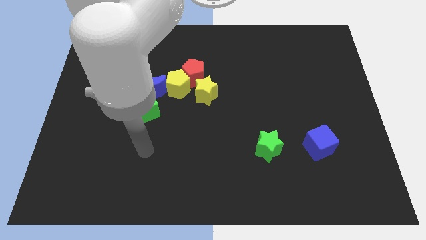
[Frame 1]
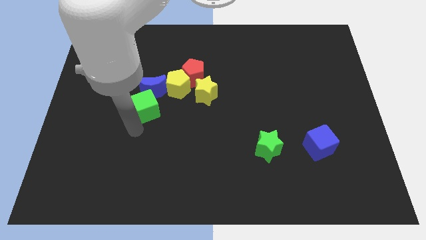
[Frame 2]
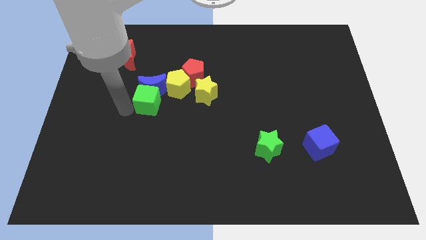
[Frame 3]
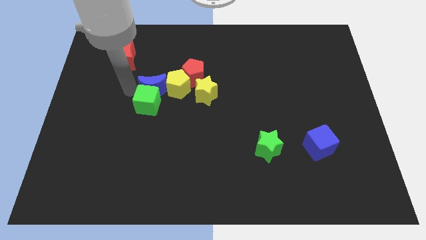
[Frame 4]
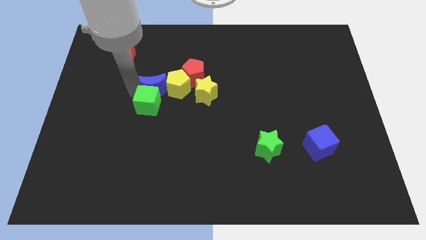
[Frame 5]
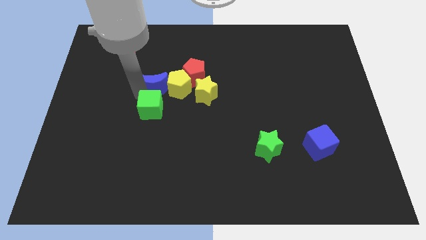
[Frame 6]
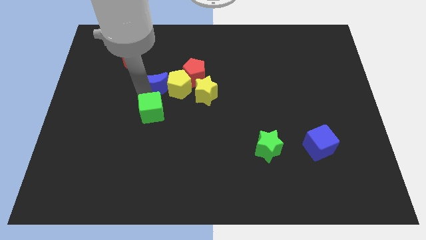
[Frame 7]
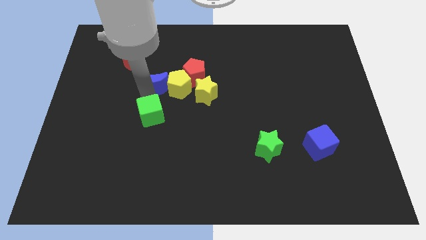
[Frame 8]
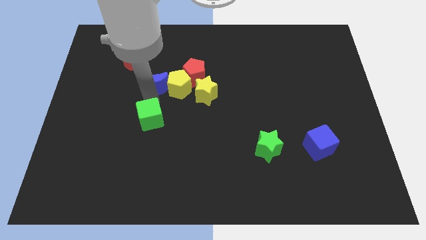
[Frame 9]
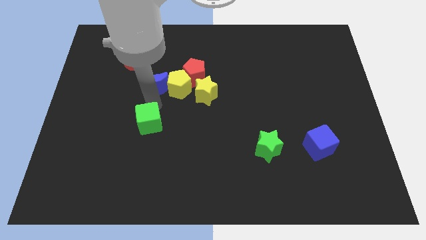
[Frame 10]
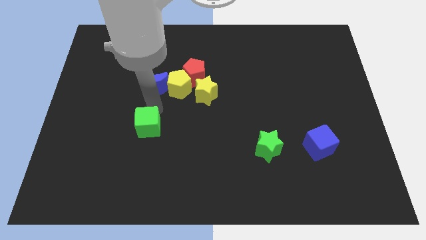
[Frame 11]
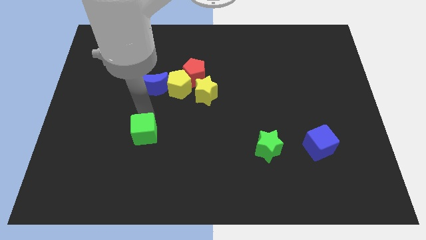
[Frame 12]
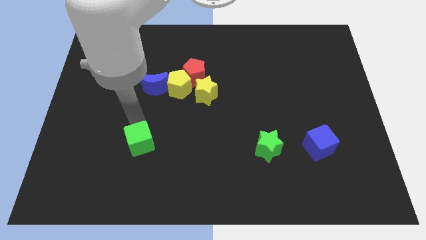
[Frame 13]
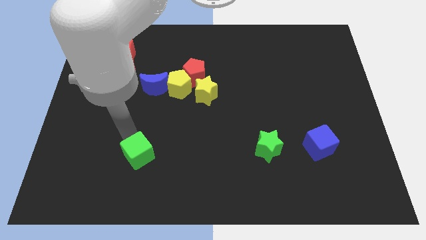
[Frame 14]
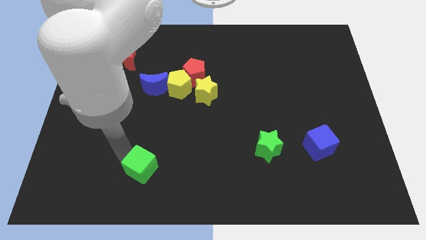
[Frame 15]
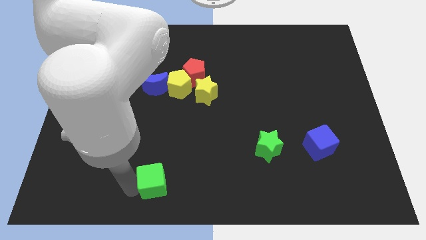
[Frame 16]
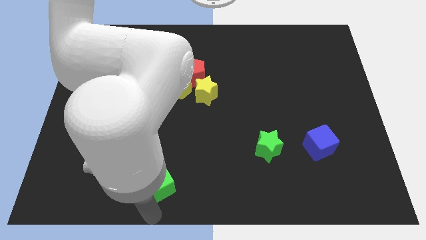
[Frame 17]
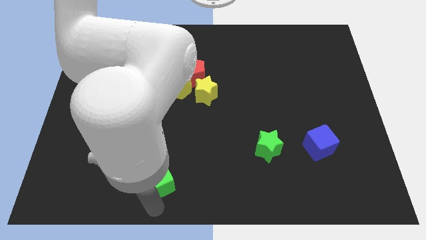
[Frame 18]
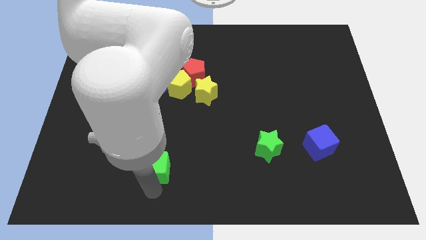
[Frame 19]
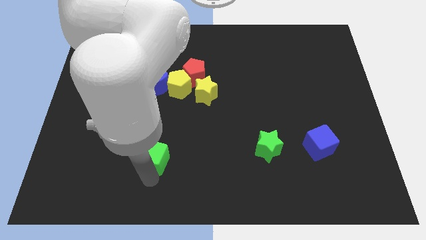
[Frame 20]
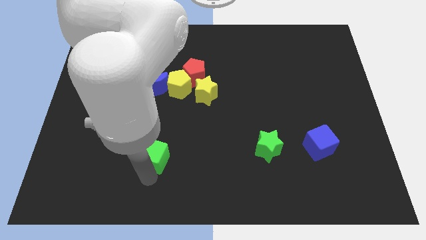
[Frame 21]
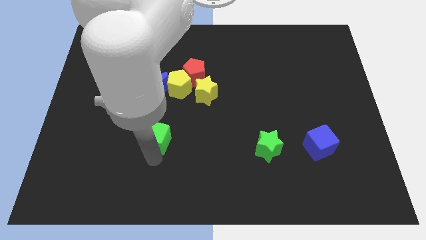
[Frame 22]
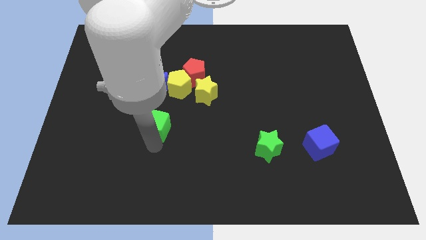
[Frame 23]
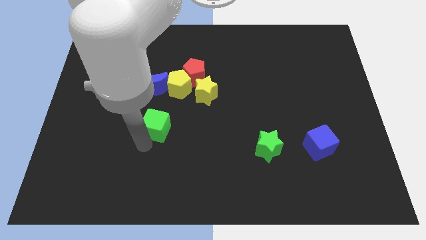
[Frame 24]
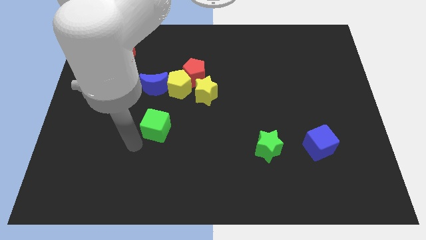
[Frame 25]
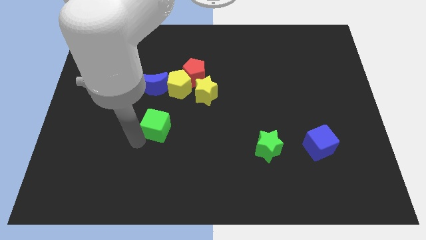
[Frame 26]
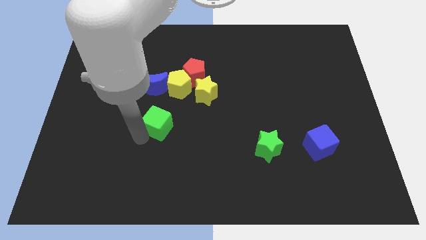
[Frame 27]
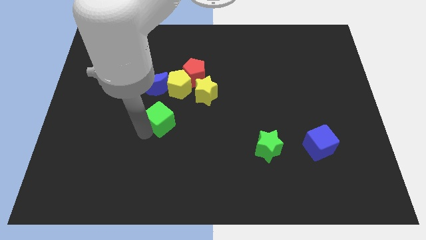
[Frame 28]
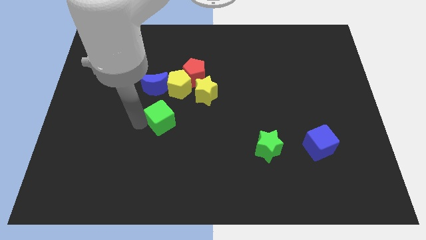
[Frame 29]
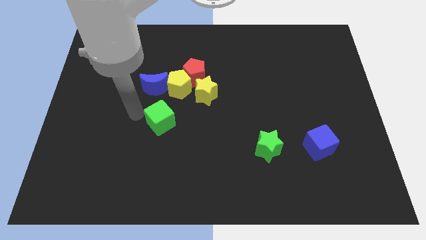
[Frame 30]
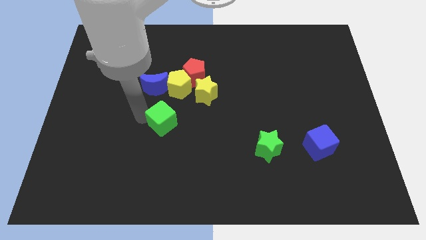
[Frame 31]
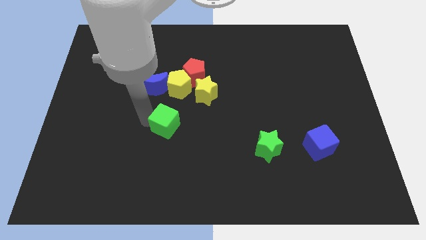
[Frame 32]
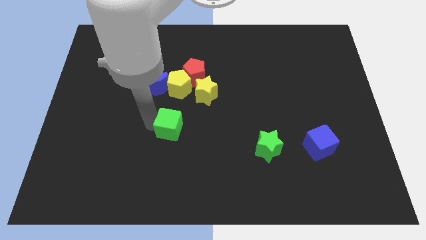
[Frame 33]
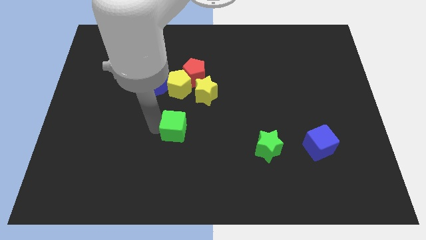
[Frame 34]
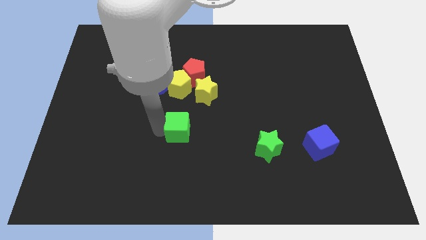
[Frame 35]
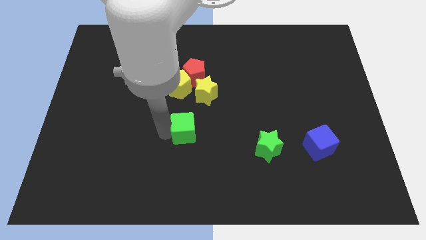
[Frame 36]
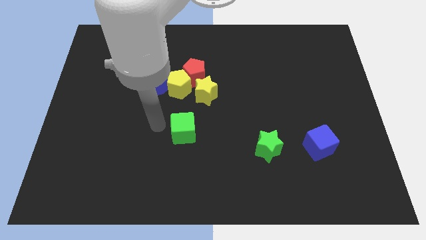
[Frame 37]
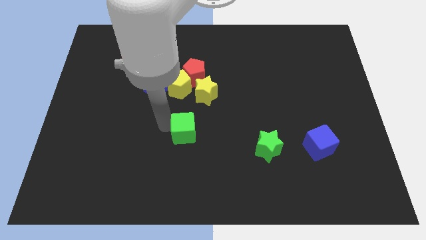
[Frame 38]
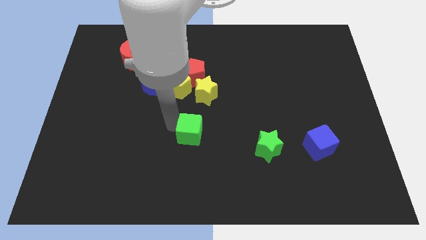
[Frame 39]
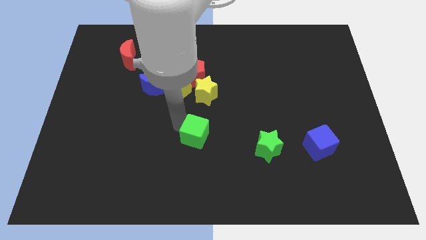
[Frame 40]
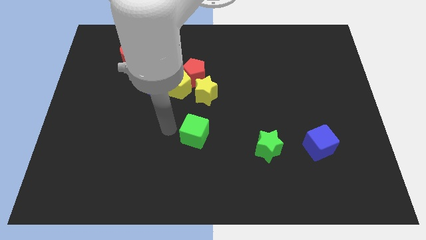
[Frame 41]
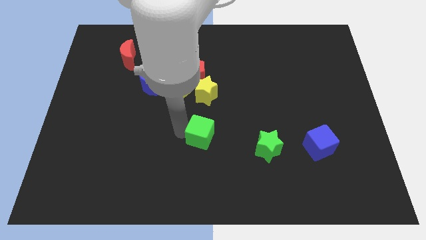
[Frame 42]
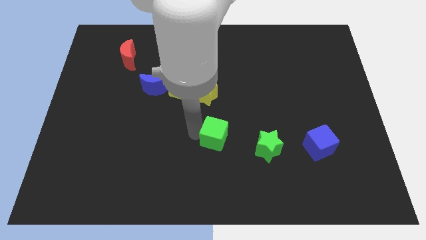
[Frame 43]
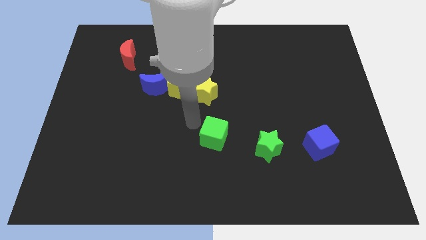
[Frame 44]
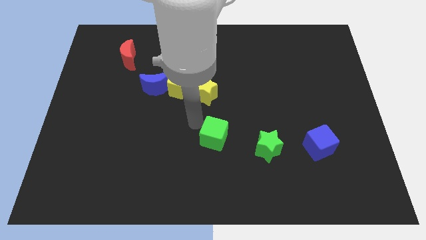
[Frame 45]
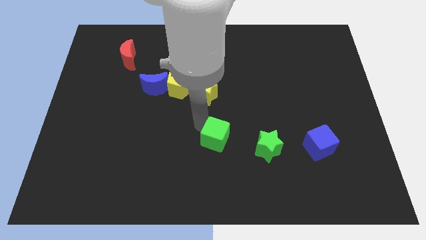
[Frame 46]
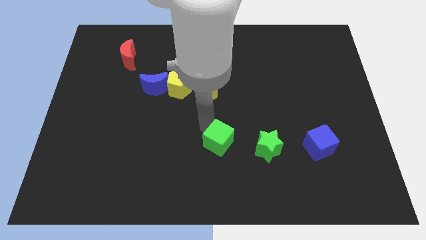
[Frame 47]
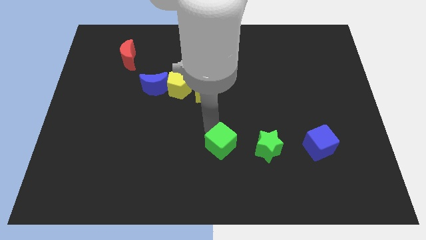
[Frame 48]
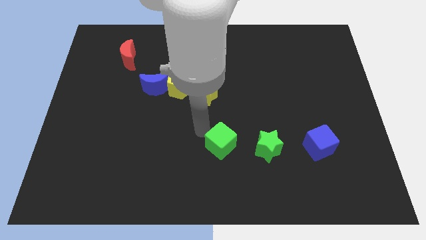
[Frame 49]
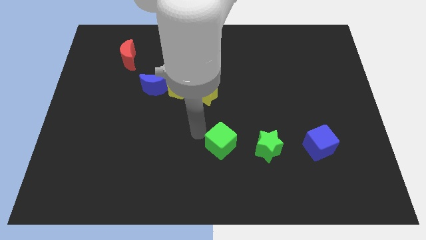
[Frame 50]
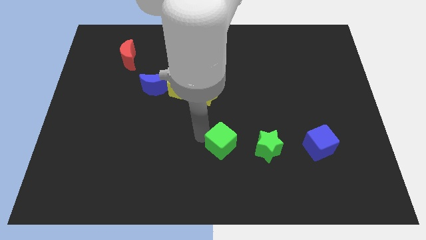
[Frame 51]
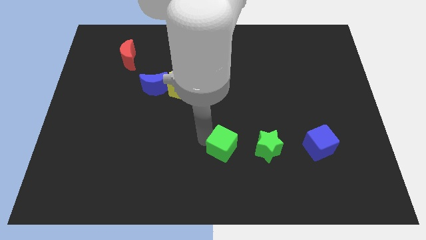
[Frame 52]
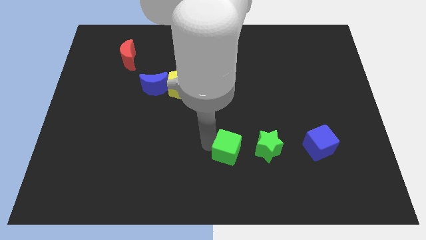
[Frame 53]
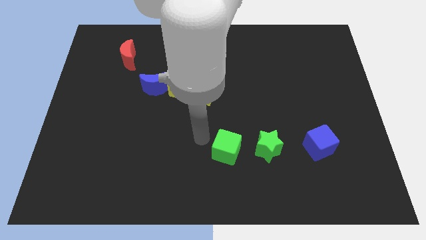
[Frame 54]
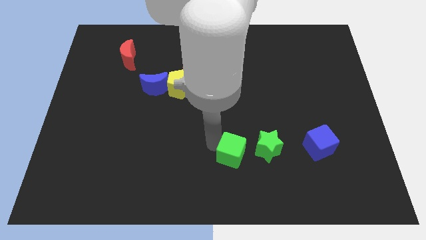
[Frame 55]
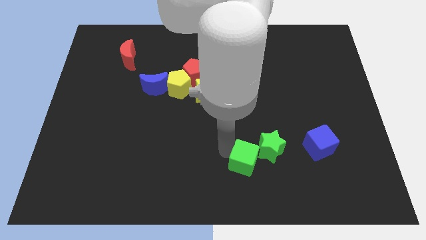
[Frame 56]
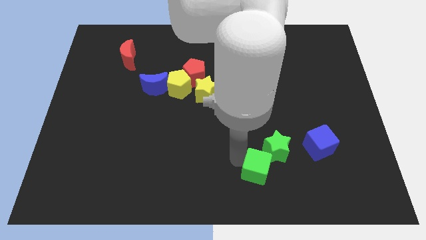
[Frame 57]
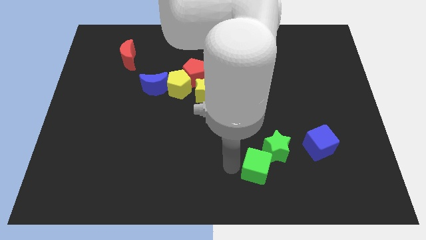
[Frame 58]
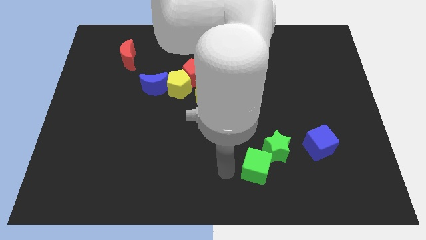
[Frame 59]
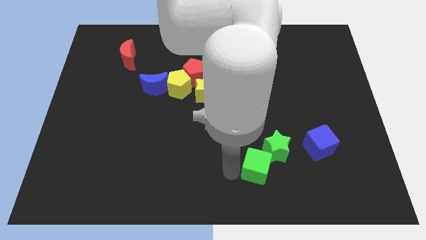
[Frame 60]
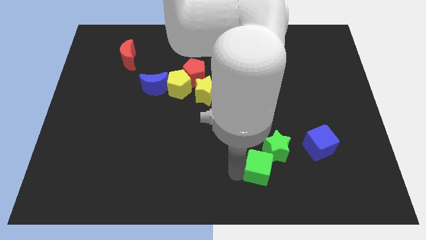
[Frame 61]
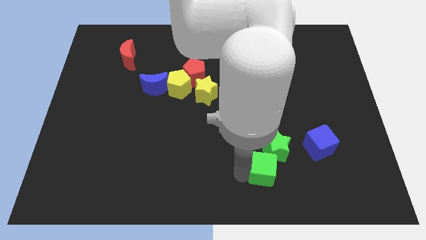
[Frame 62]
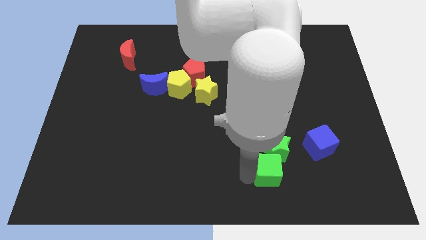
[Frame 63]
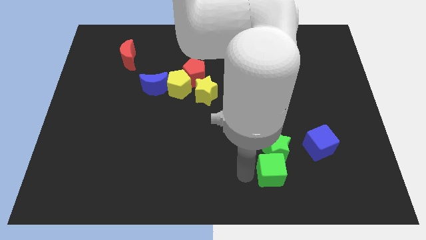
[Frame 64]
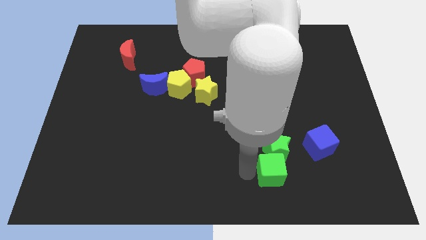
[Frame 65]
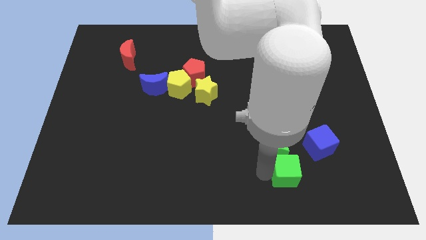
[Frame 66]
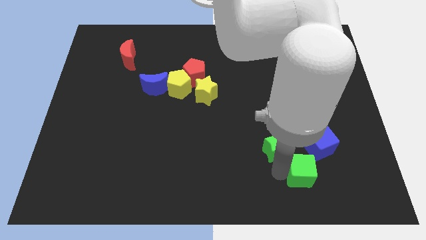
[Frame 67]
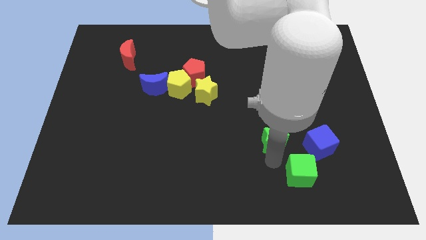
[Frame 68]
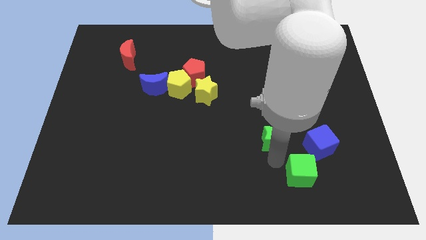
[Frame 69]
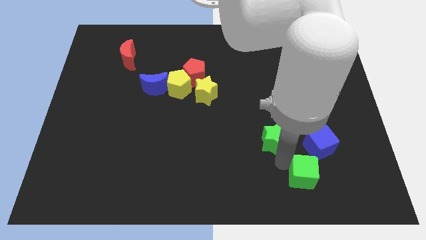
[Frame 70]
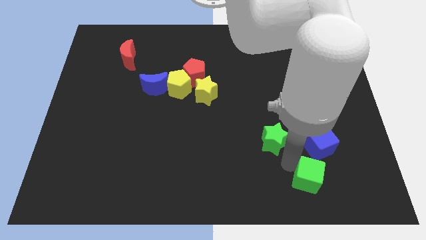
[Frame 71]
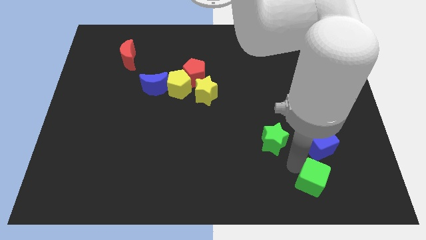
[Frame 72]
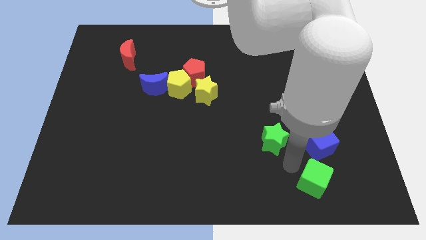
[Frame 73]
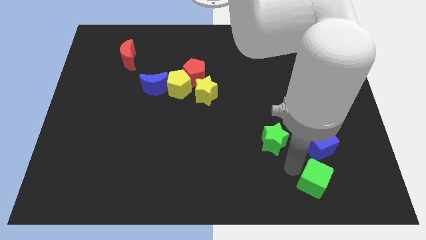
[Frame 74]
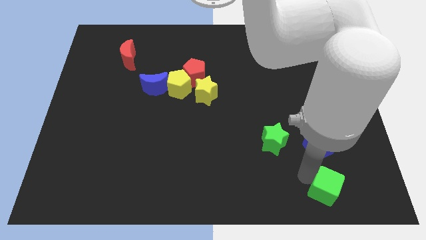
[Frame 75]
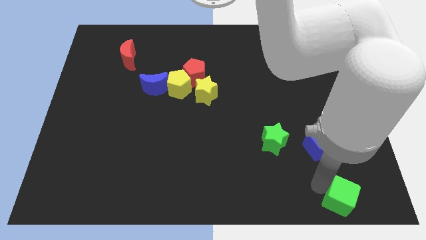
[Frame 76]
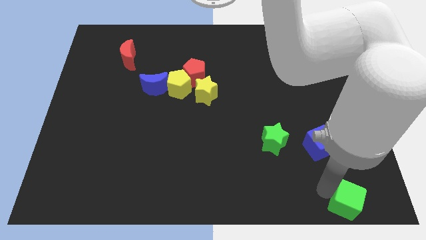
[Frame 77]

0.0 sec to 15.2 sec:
move the green cube to the lower right corner
